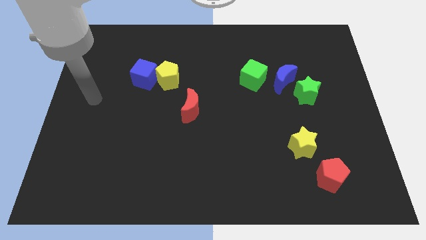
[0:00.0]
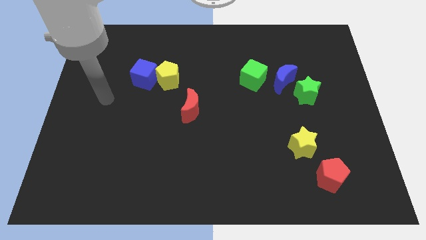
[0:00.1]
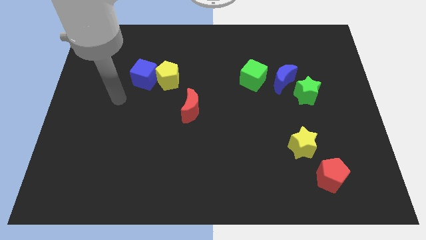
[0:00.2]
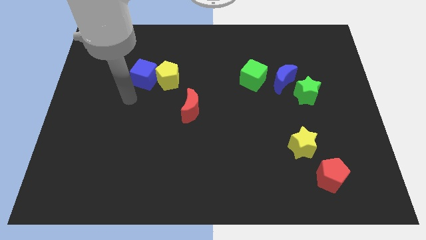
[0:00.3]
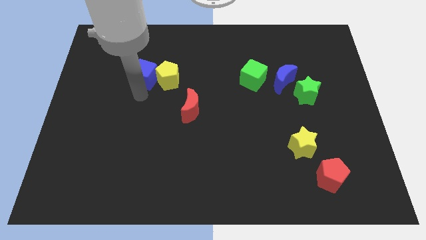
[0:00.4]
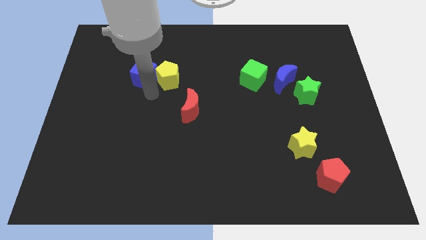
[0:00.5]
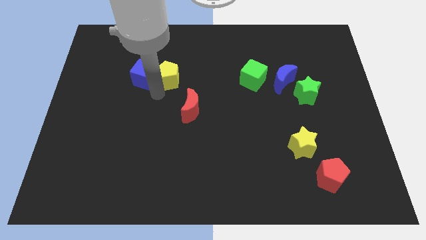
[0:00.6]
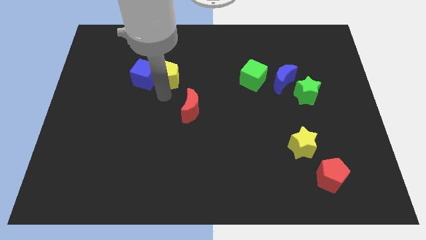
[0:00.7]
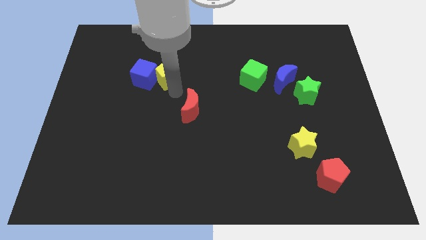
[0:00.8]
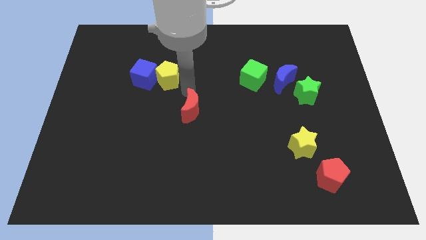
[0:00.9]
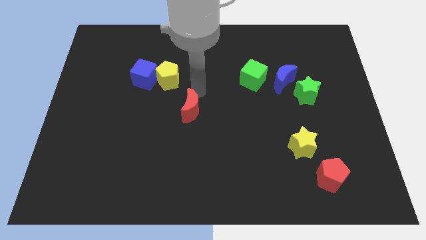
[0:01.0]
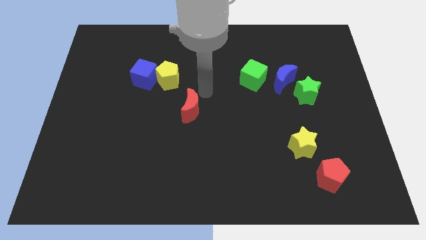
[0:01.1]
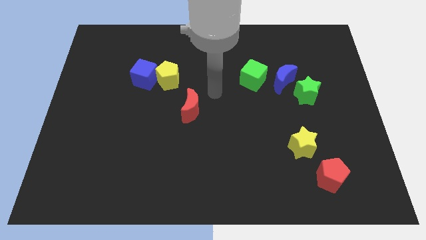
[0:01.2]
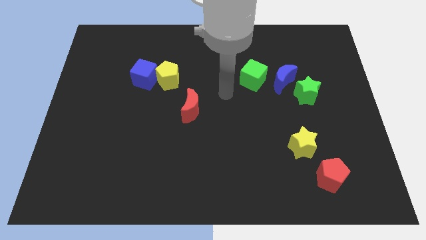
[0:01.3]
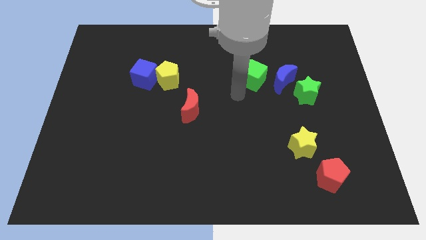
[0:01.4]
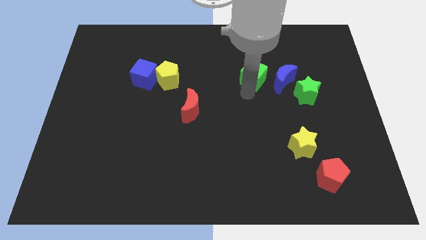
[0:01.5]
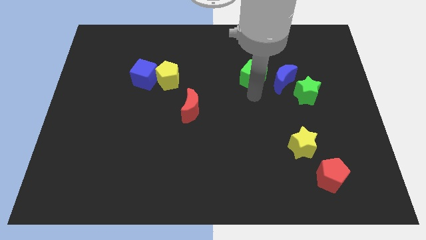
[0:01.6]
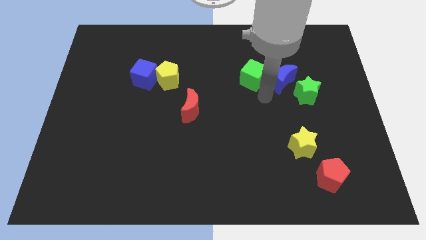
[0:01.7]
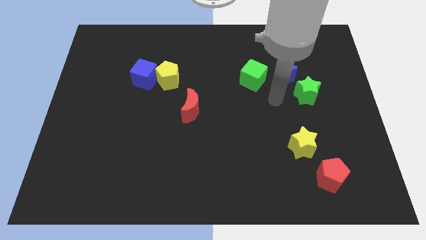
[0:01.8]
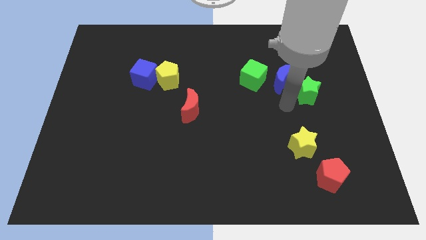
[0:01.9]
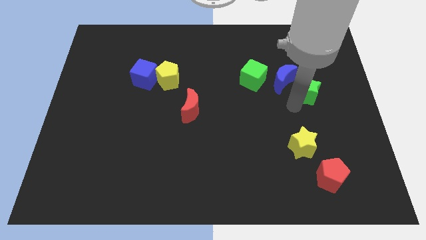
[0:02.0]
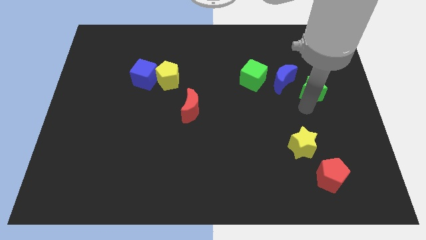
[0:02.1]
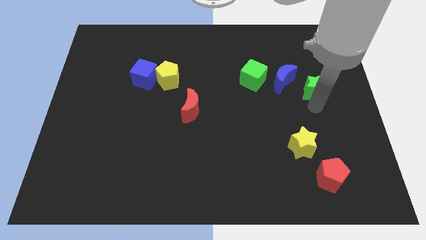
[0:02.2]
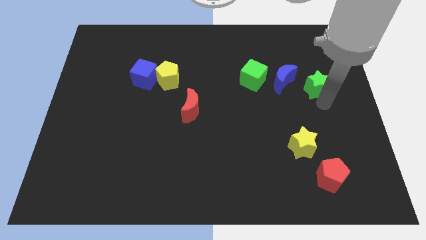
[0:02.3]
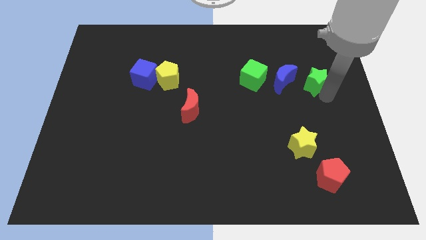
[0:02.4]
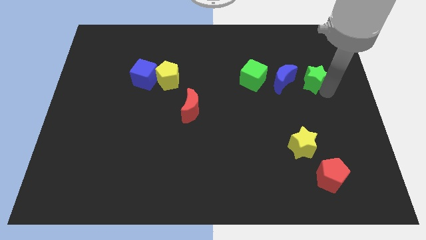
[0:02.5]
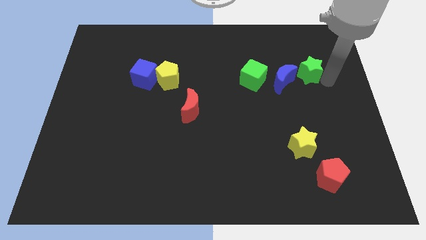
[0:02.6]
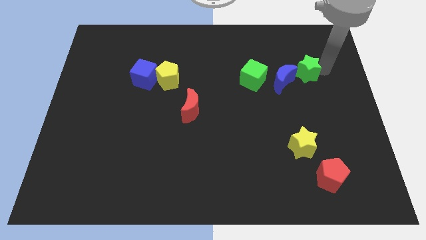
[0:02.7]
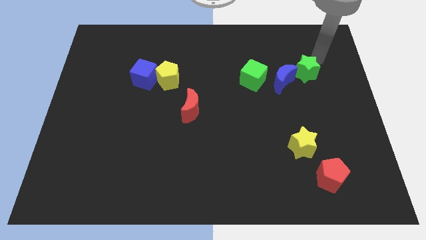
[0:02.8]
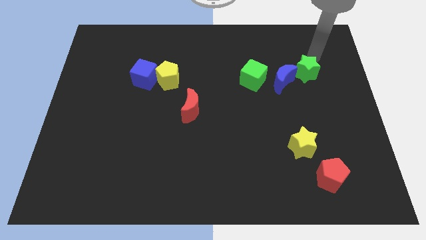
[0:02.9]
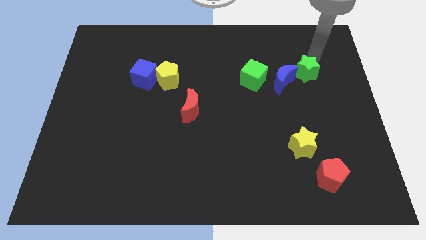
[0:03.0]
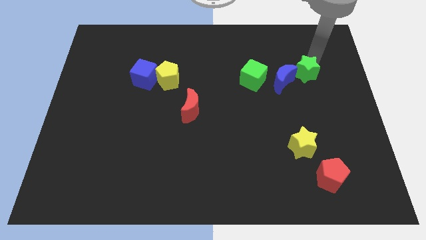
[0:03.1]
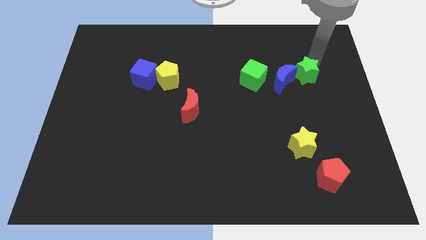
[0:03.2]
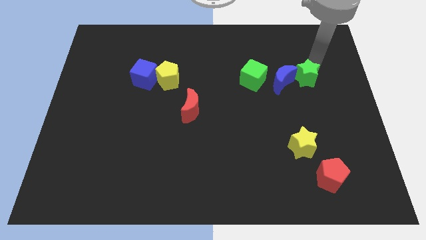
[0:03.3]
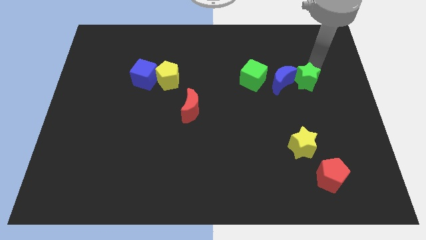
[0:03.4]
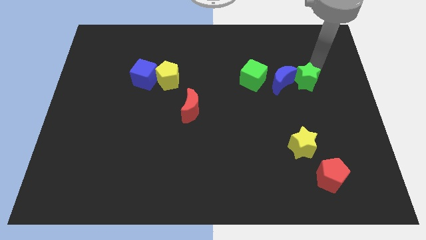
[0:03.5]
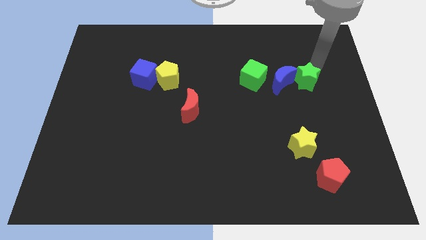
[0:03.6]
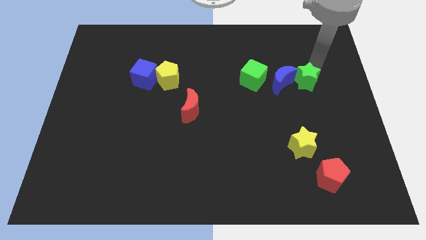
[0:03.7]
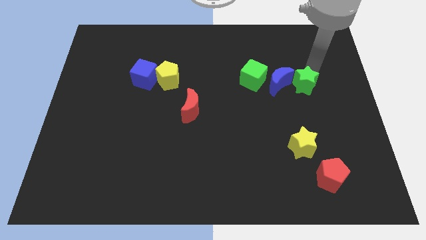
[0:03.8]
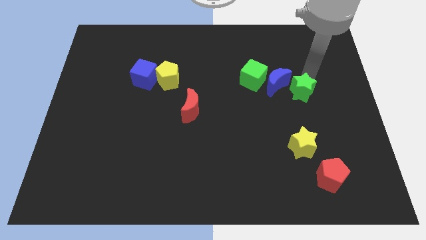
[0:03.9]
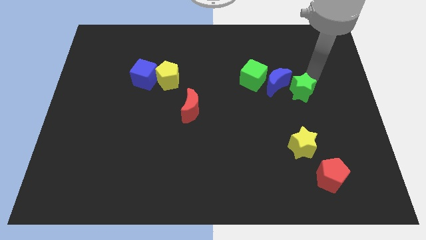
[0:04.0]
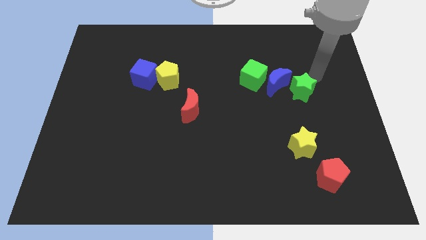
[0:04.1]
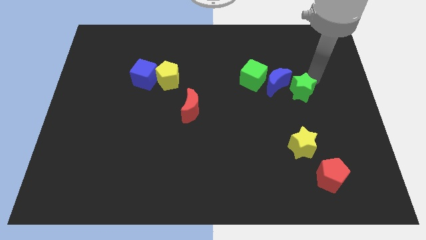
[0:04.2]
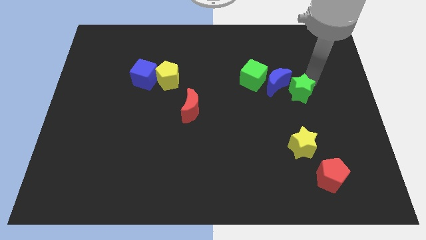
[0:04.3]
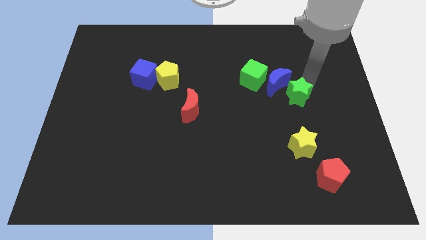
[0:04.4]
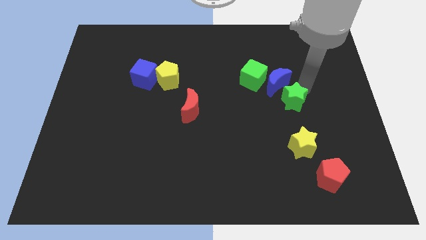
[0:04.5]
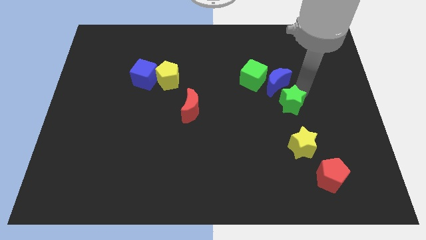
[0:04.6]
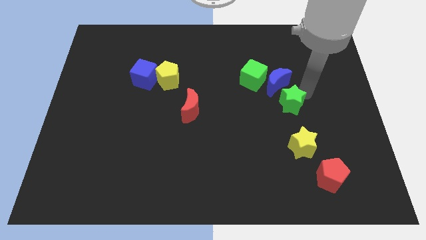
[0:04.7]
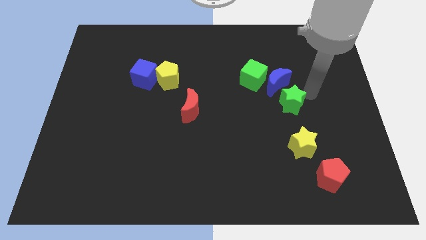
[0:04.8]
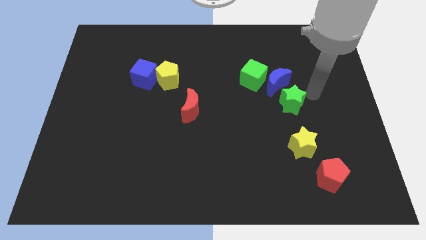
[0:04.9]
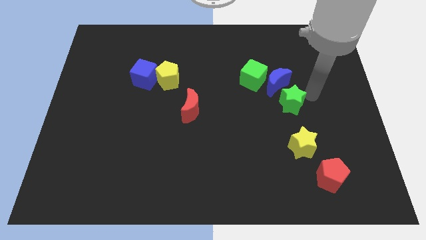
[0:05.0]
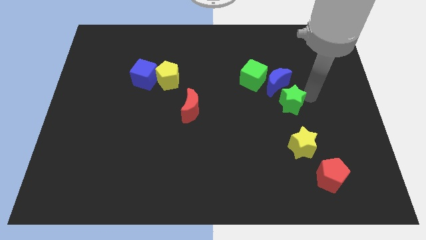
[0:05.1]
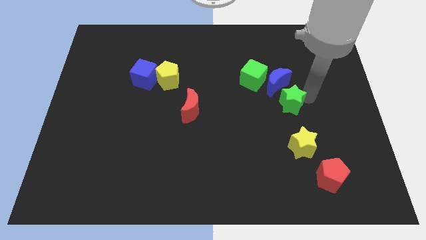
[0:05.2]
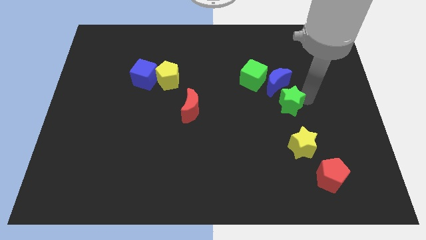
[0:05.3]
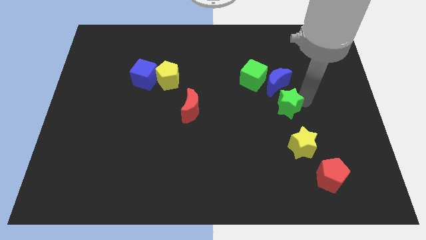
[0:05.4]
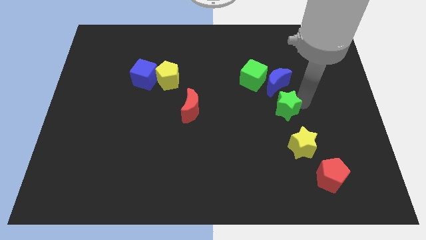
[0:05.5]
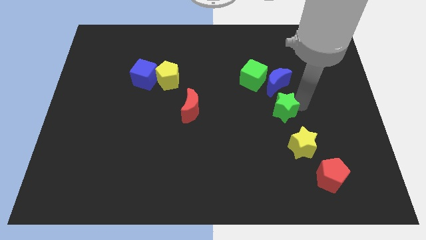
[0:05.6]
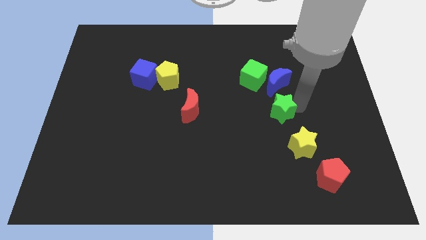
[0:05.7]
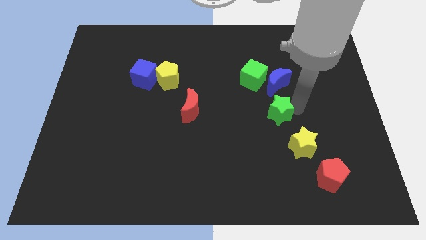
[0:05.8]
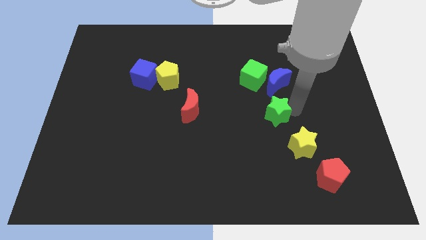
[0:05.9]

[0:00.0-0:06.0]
push the green star below the green cube

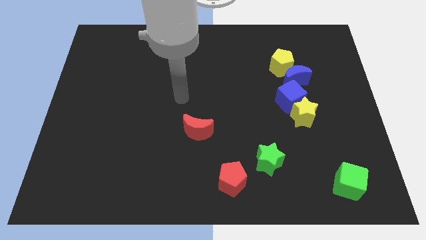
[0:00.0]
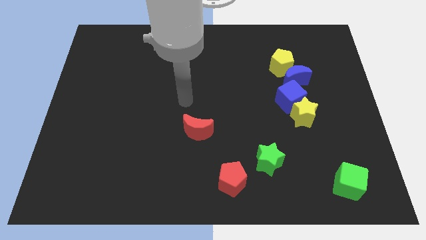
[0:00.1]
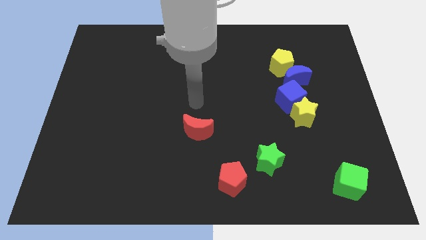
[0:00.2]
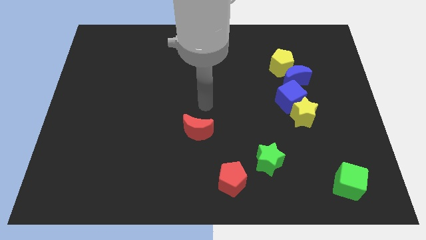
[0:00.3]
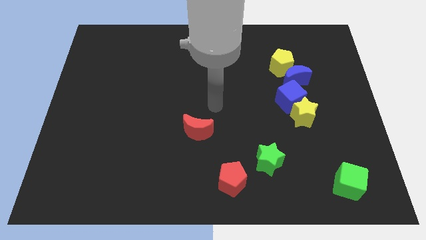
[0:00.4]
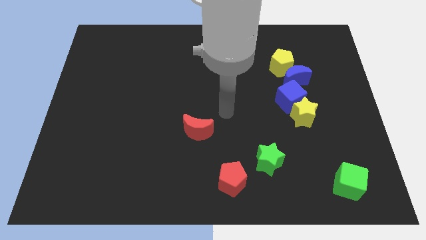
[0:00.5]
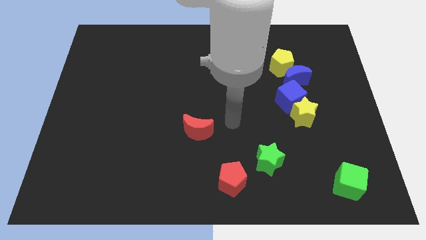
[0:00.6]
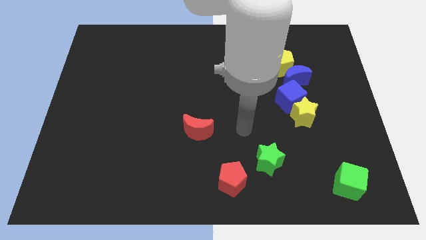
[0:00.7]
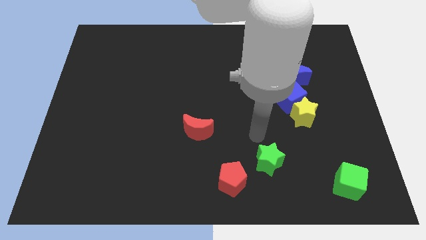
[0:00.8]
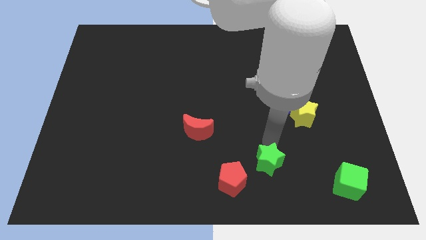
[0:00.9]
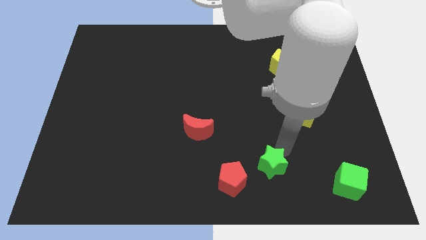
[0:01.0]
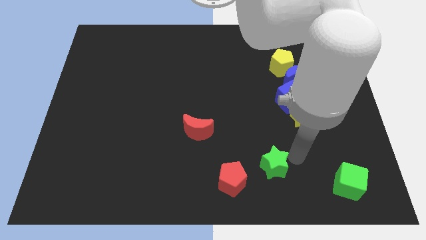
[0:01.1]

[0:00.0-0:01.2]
move the green cube just right of the green star

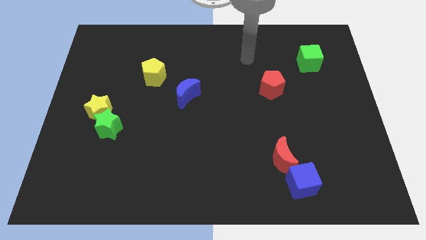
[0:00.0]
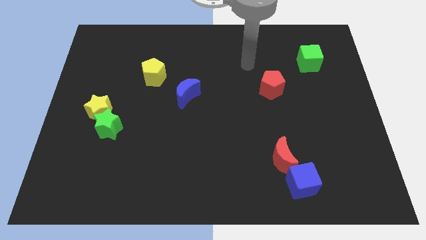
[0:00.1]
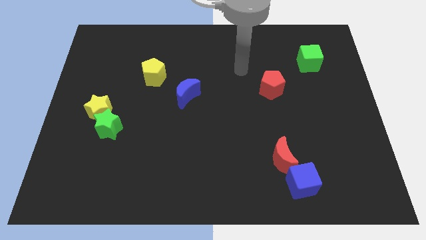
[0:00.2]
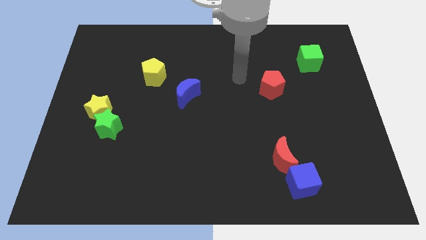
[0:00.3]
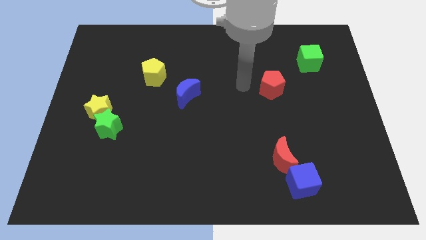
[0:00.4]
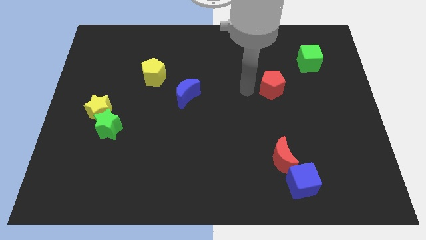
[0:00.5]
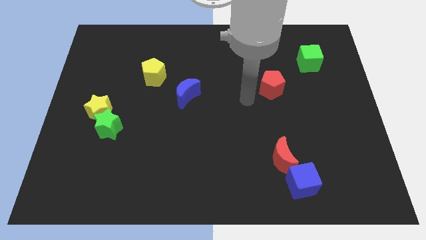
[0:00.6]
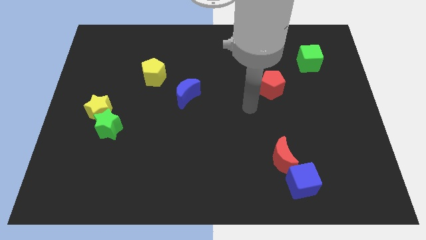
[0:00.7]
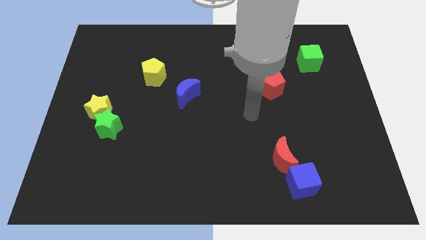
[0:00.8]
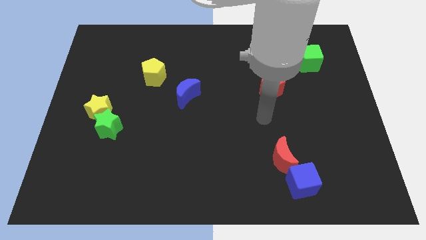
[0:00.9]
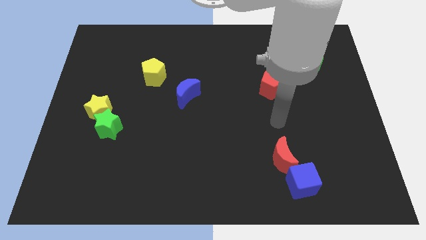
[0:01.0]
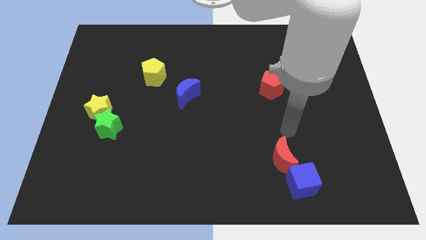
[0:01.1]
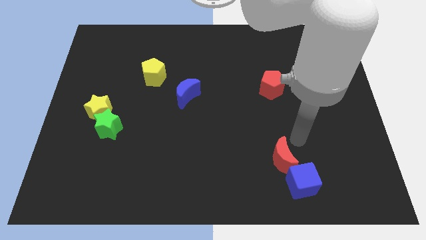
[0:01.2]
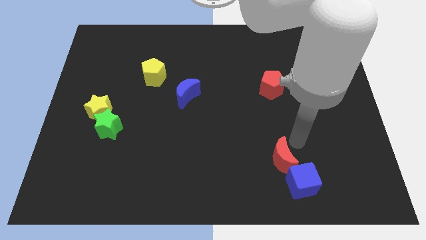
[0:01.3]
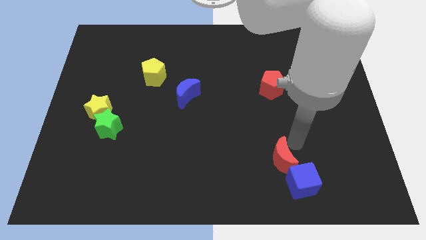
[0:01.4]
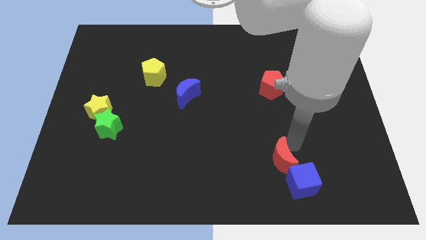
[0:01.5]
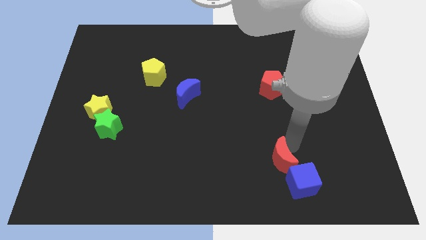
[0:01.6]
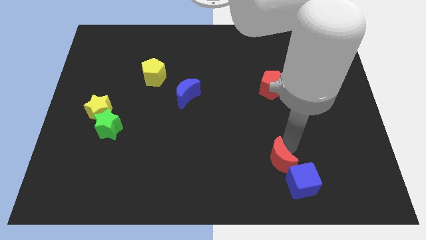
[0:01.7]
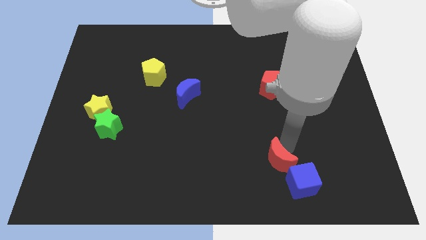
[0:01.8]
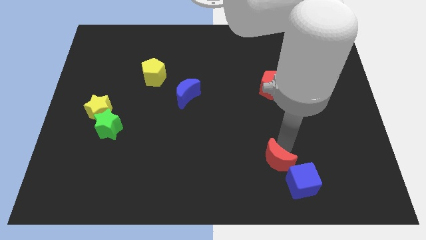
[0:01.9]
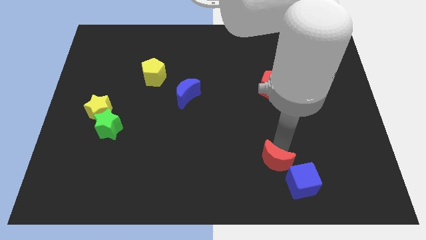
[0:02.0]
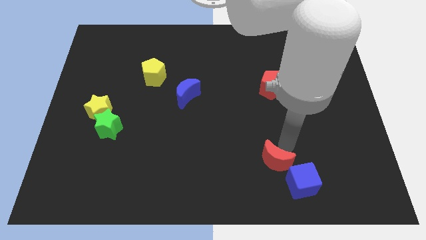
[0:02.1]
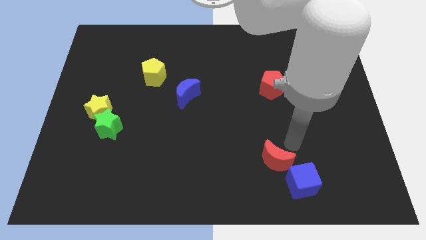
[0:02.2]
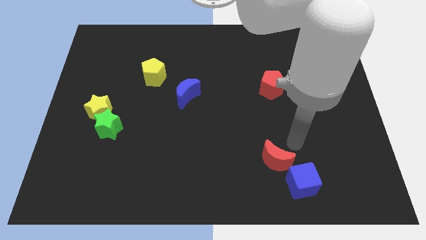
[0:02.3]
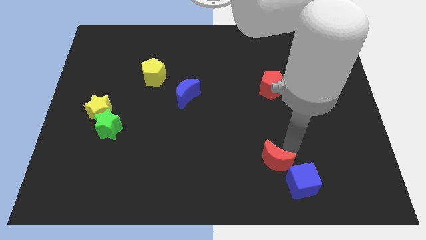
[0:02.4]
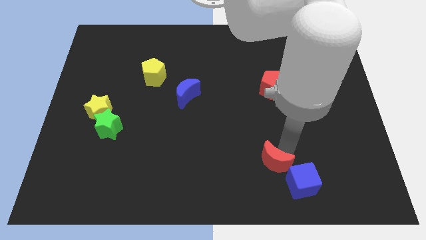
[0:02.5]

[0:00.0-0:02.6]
move the red moon to the left side of the blue cube
